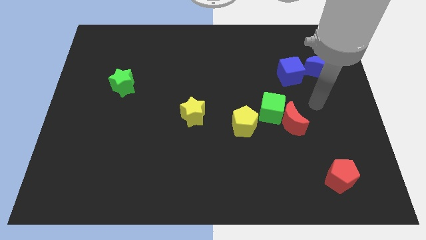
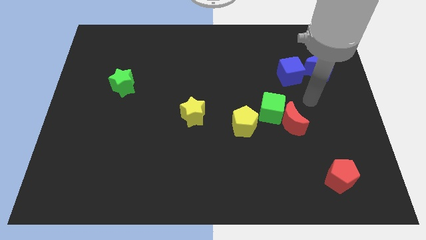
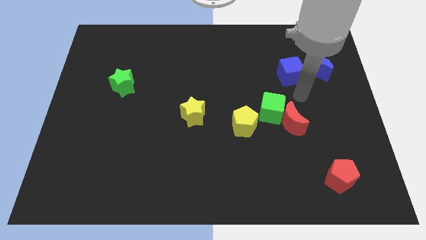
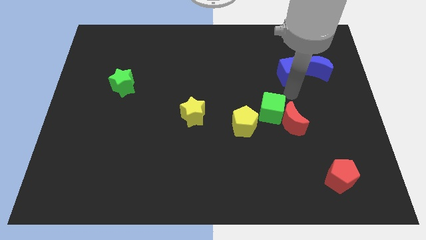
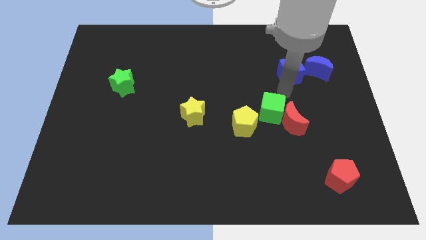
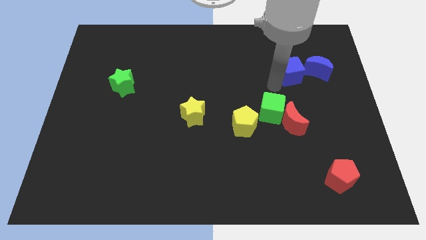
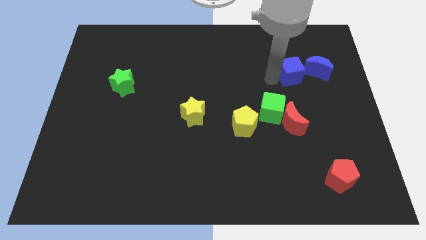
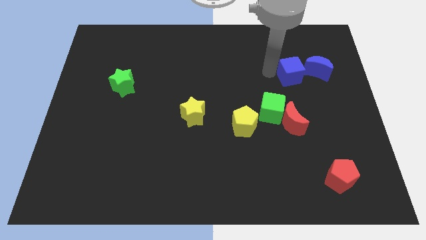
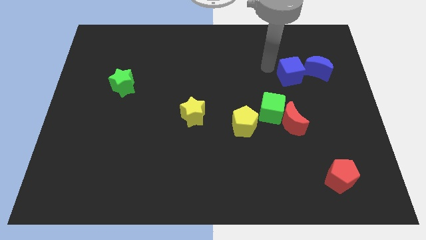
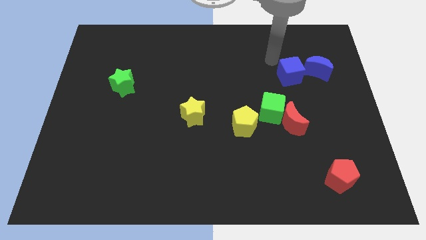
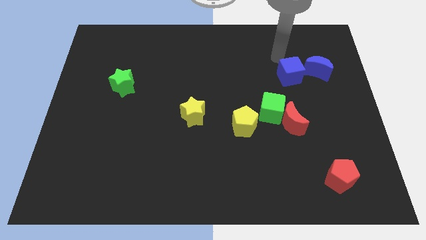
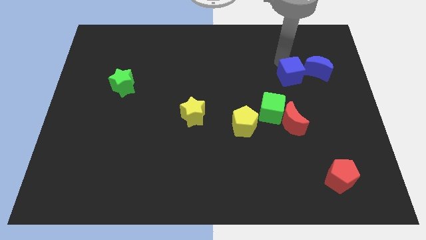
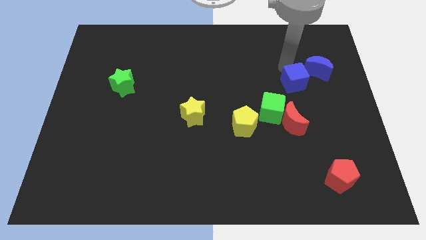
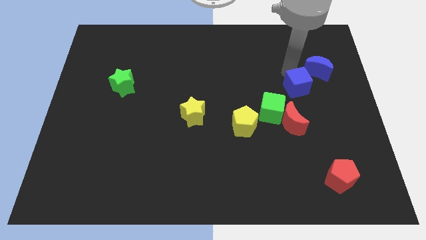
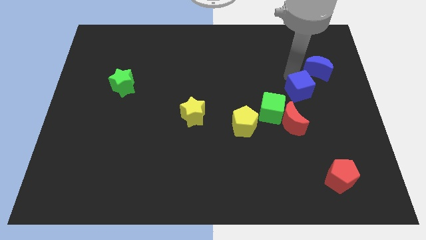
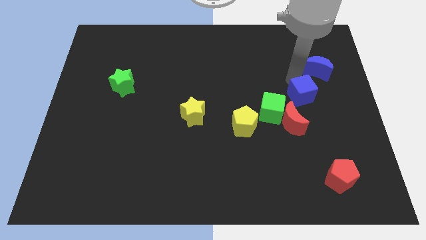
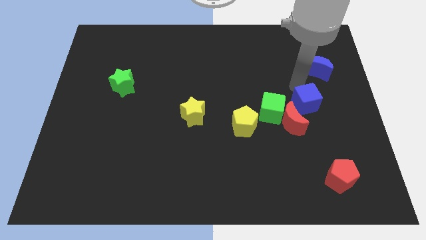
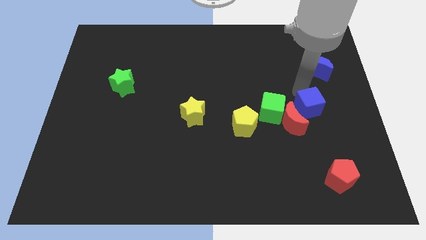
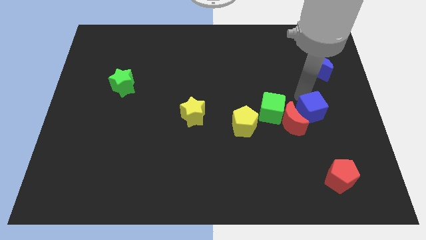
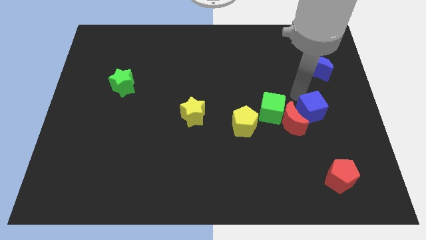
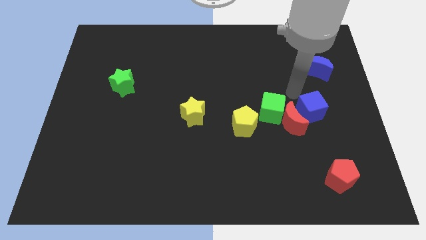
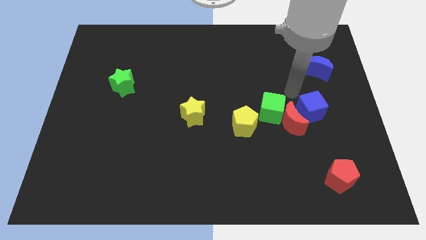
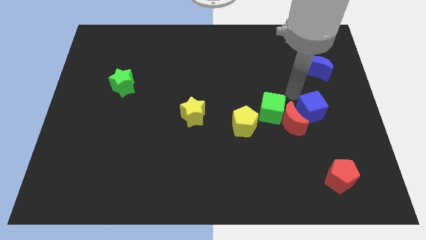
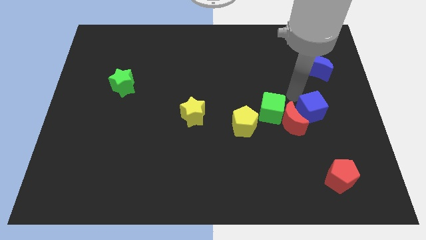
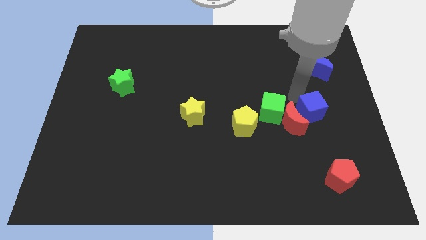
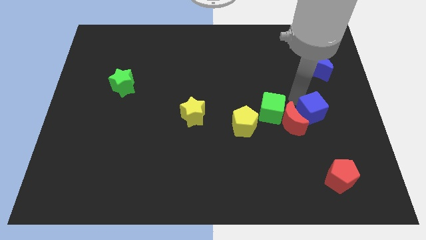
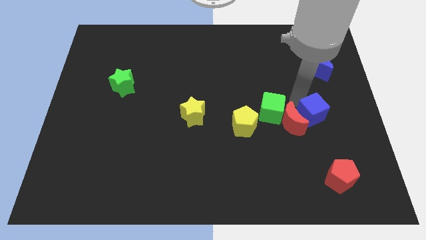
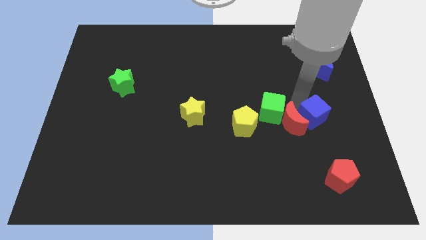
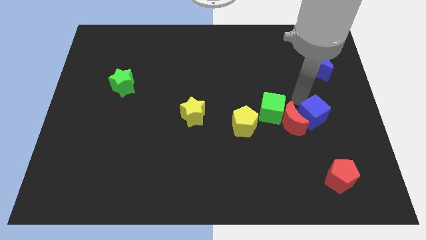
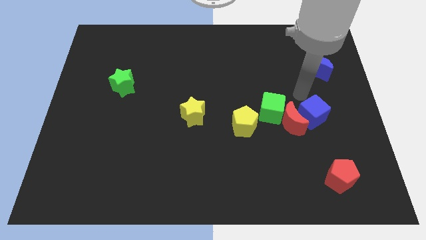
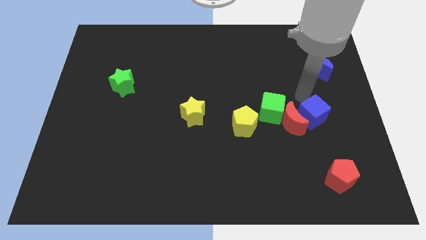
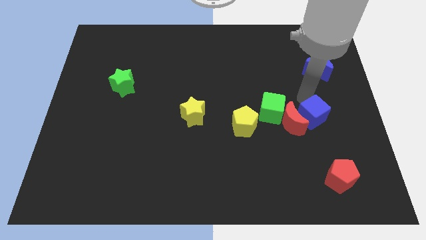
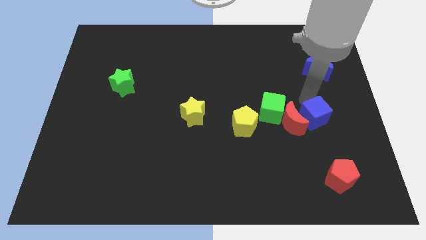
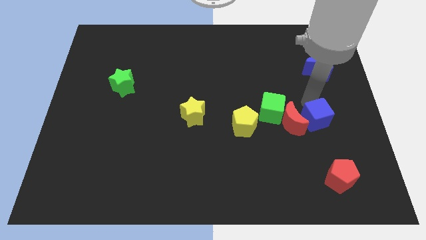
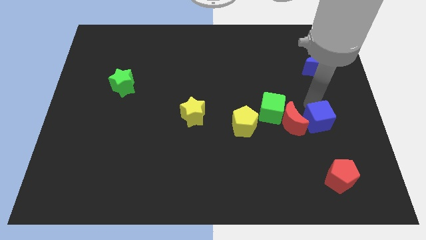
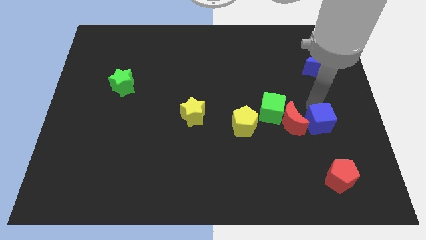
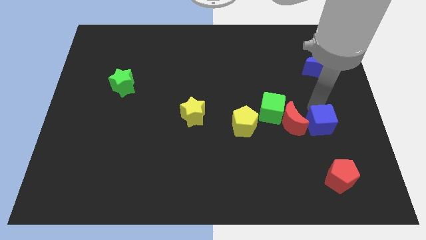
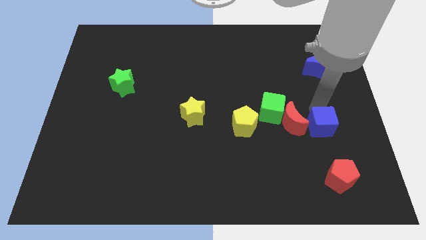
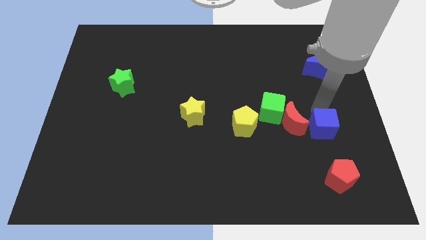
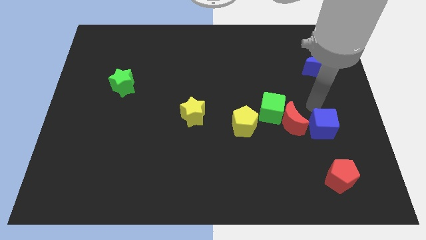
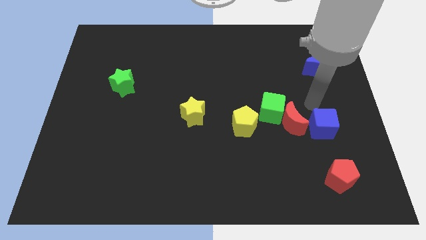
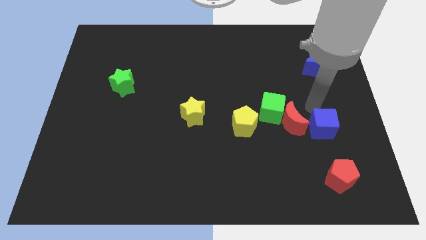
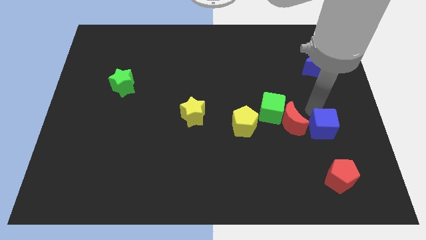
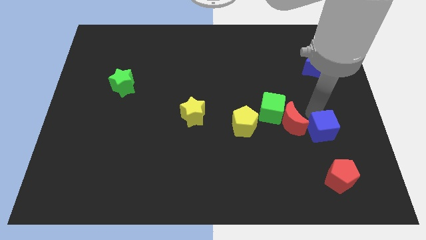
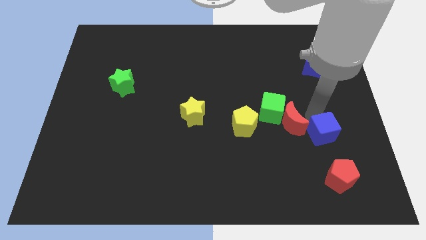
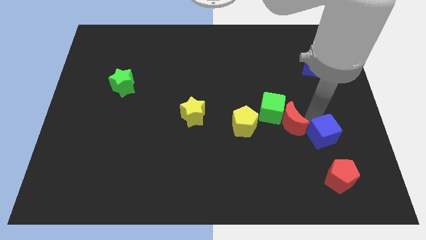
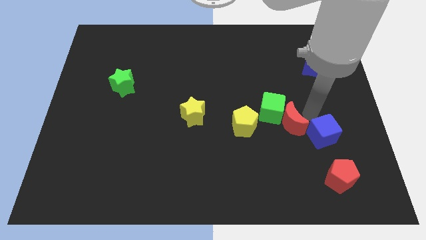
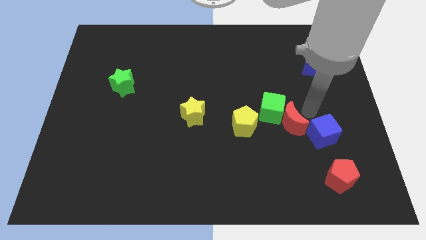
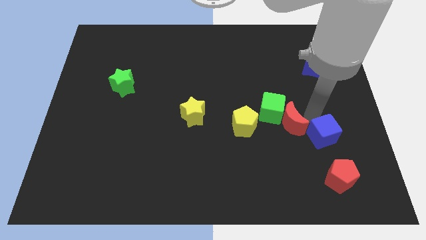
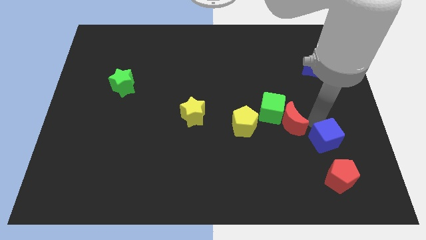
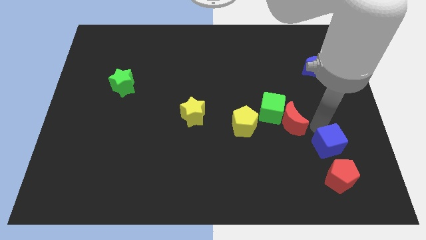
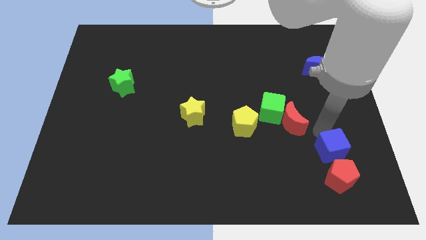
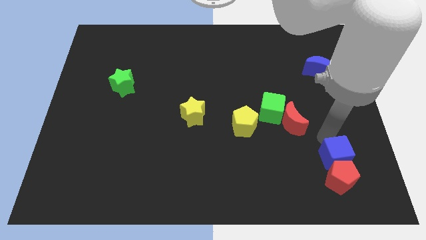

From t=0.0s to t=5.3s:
move the blue cube to the red pentagon

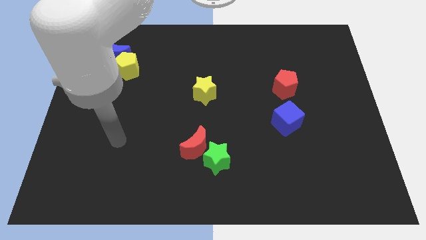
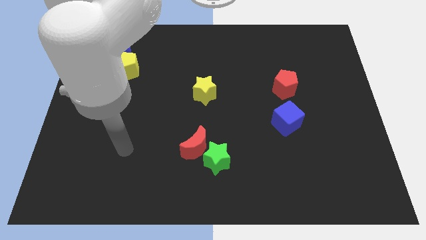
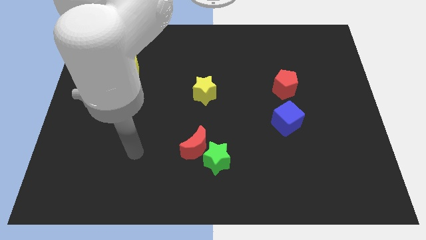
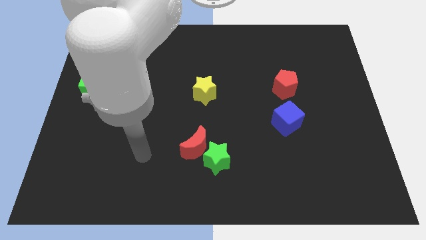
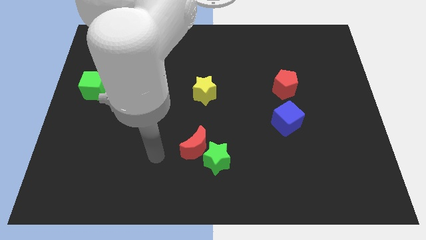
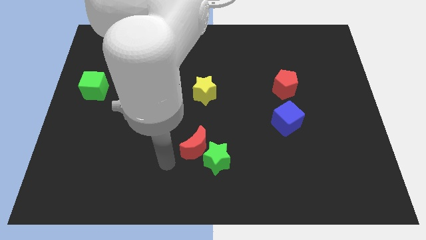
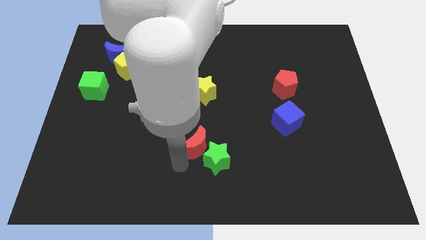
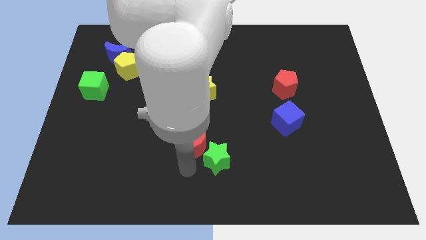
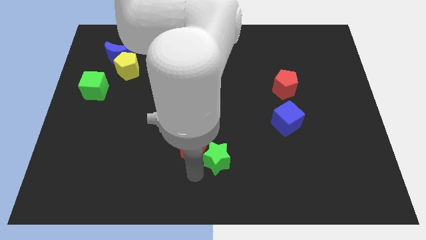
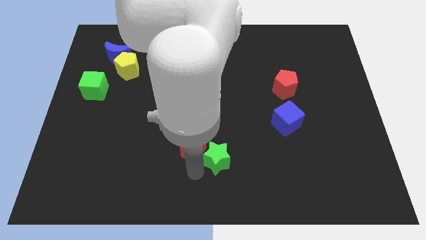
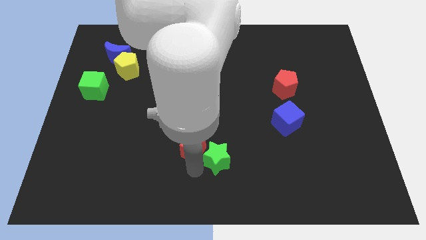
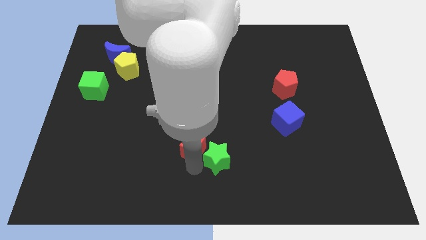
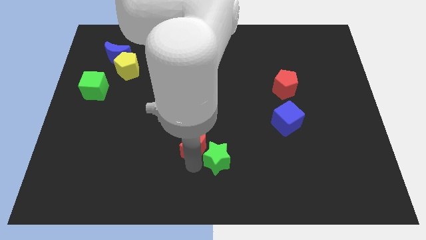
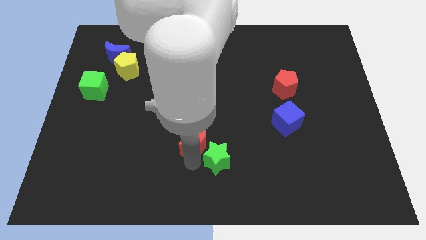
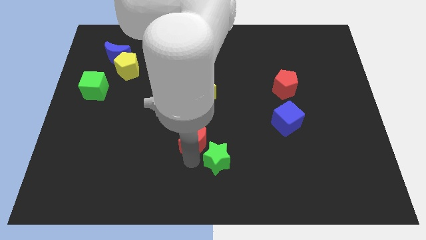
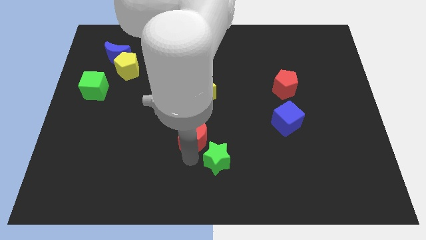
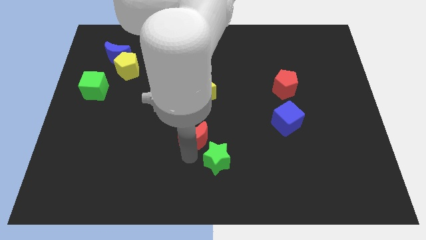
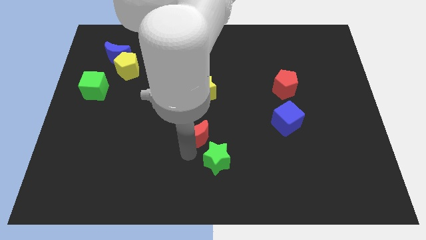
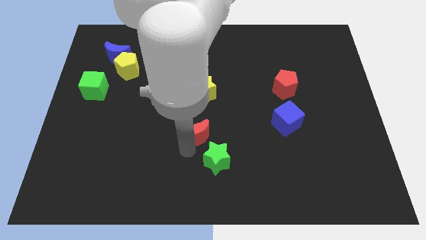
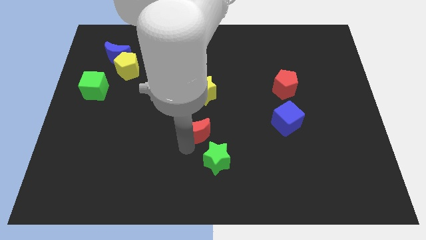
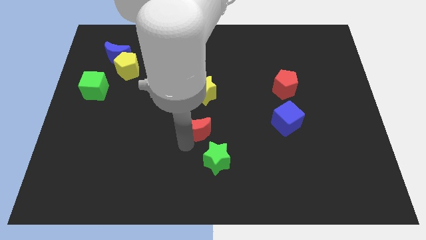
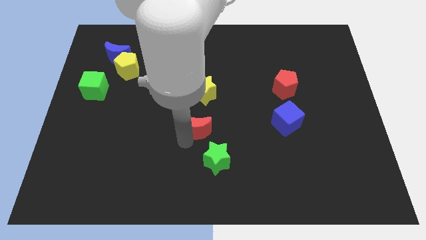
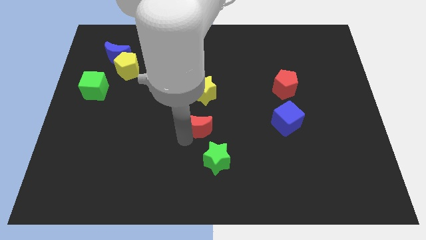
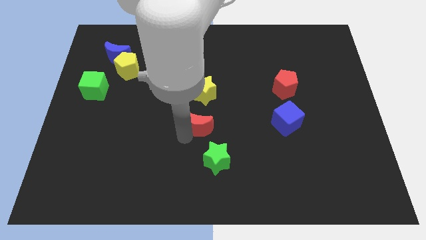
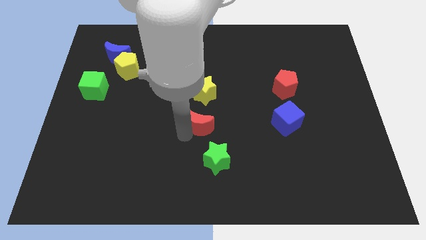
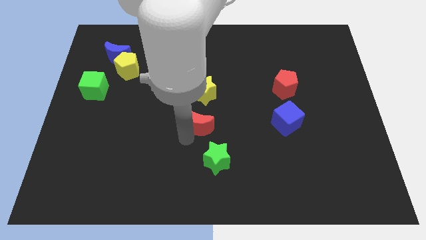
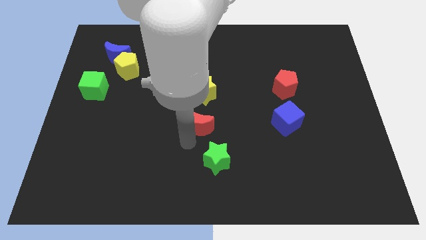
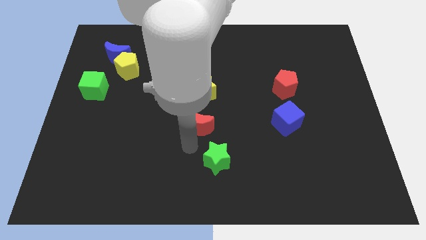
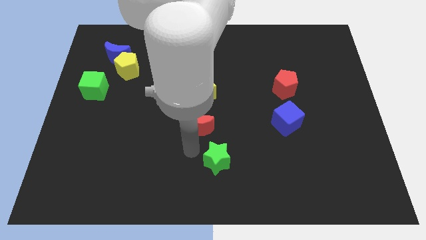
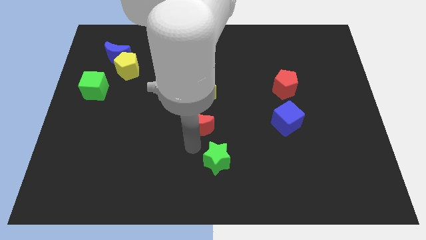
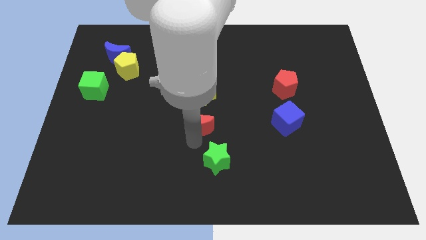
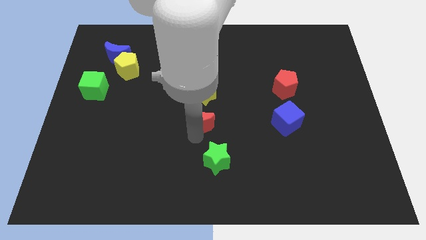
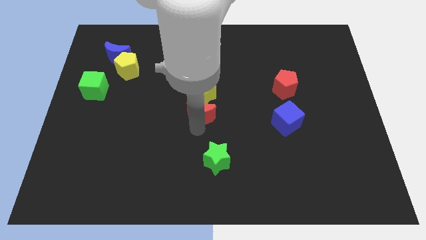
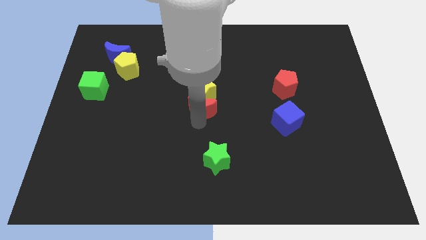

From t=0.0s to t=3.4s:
move the red moon towards the yellow star
